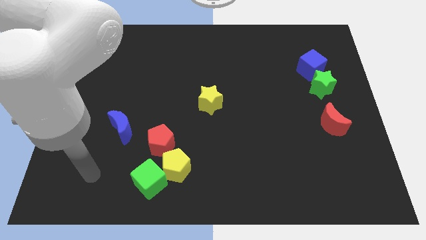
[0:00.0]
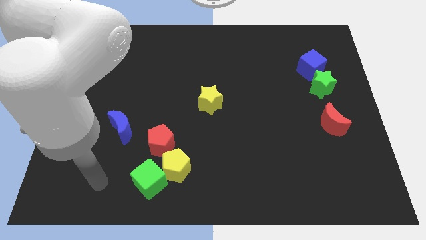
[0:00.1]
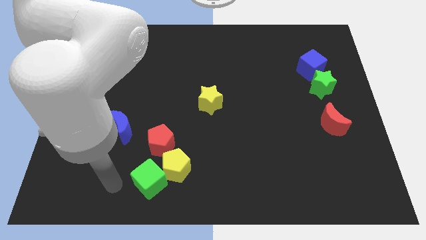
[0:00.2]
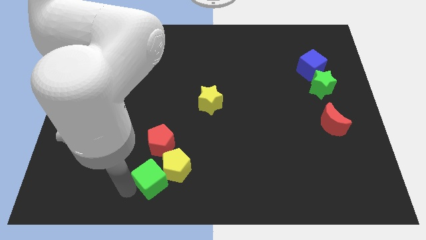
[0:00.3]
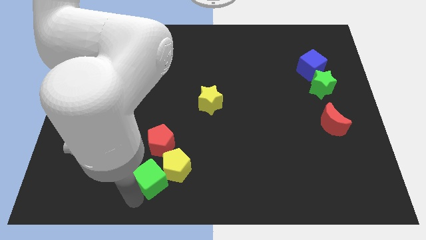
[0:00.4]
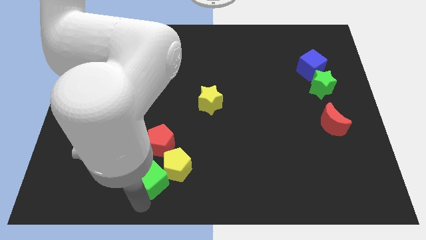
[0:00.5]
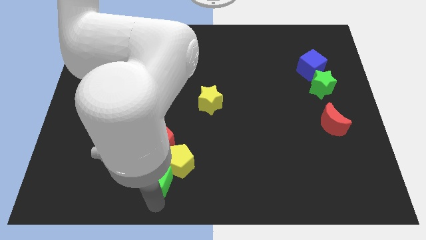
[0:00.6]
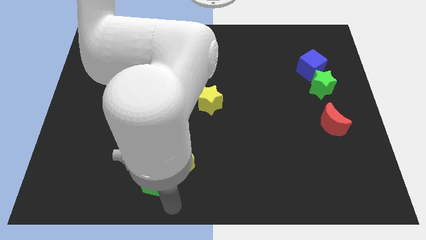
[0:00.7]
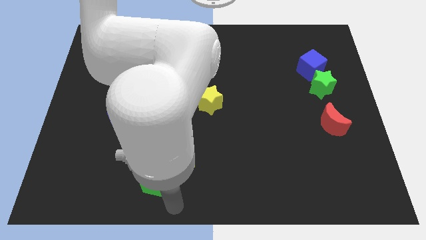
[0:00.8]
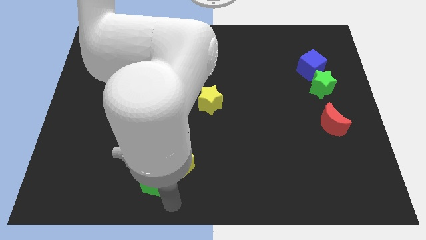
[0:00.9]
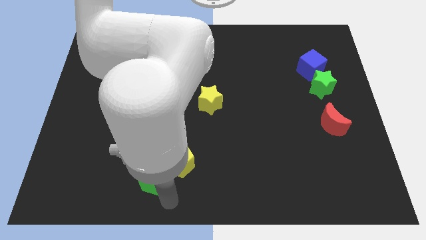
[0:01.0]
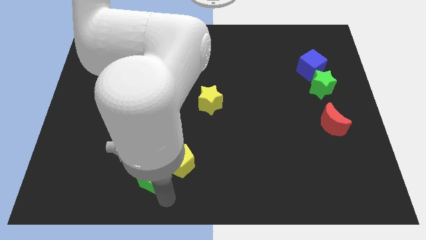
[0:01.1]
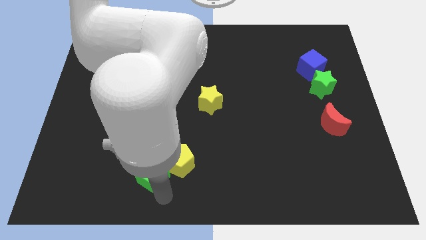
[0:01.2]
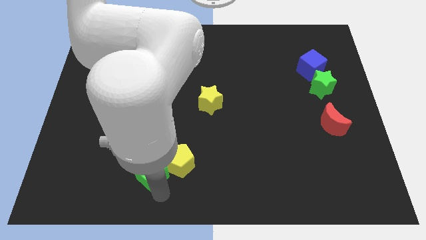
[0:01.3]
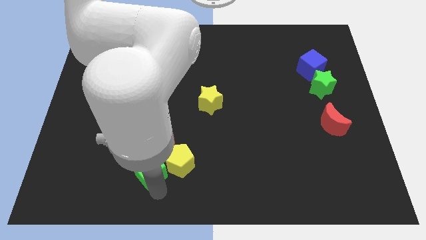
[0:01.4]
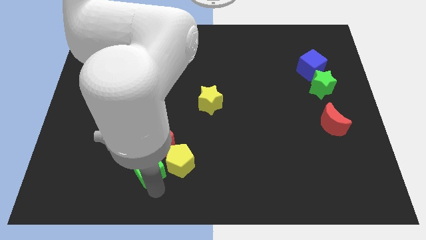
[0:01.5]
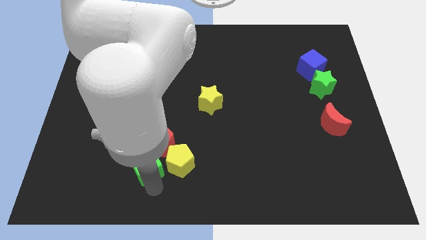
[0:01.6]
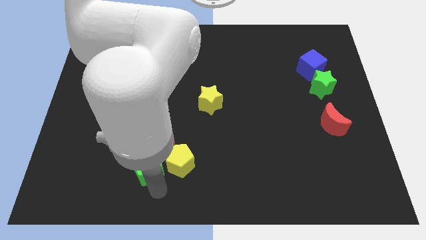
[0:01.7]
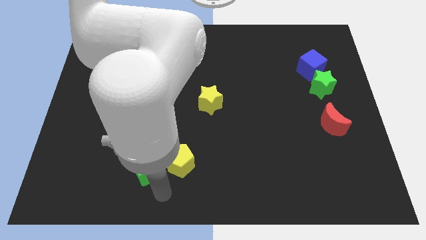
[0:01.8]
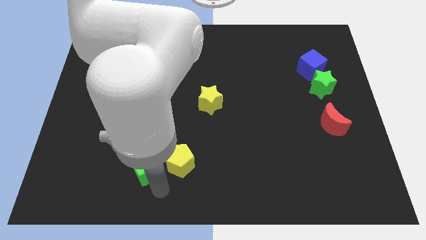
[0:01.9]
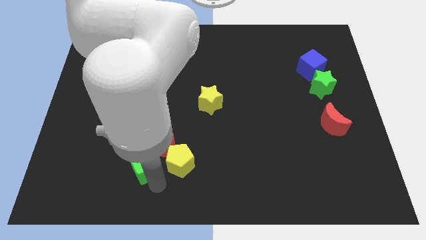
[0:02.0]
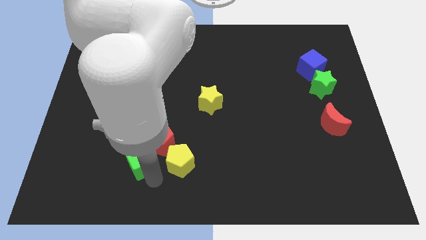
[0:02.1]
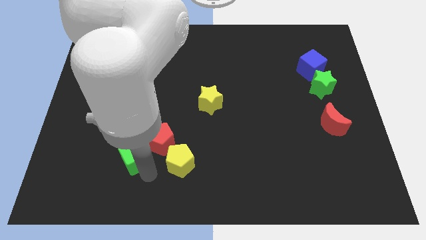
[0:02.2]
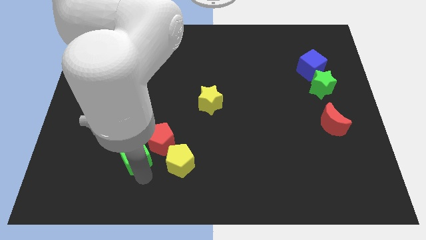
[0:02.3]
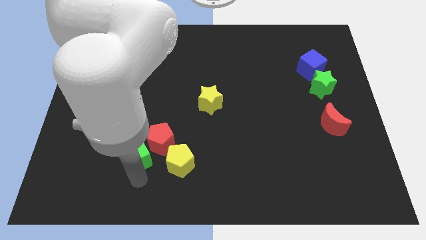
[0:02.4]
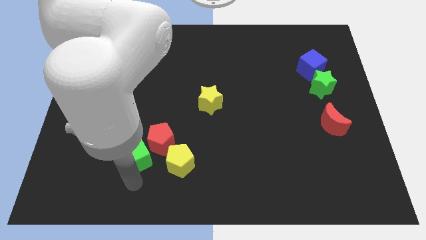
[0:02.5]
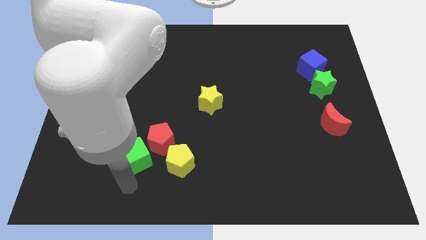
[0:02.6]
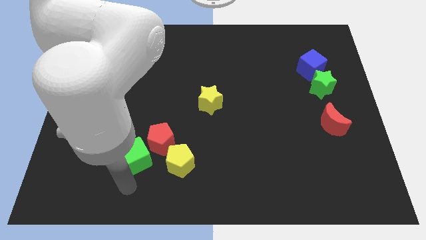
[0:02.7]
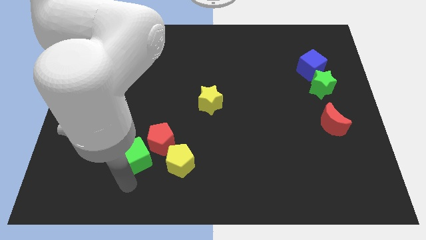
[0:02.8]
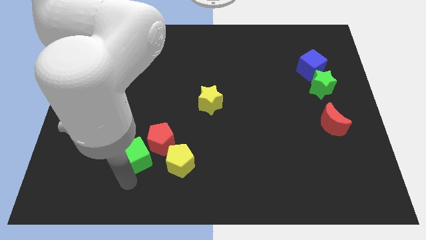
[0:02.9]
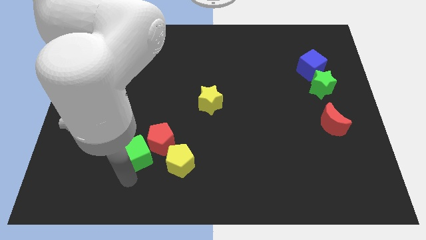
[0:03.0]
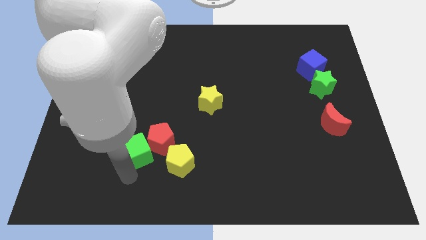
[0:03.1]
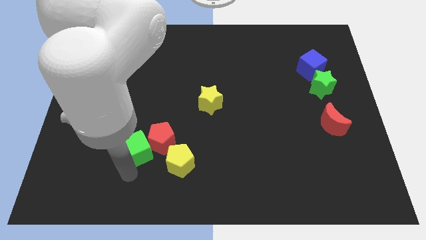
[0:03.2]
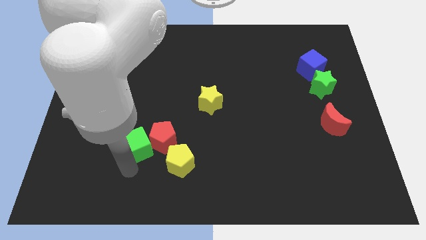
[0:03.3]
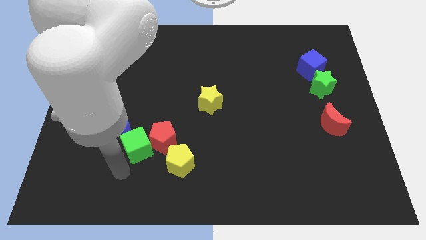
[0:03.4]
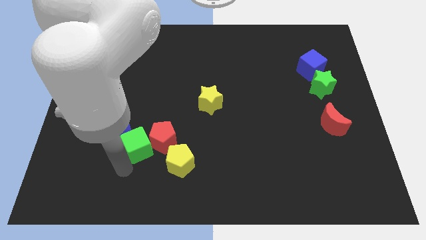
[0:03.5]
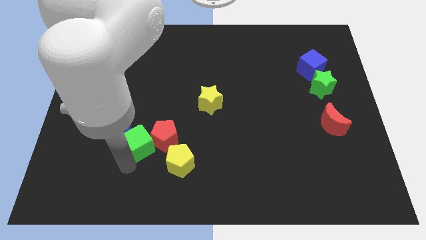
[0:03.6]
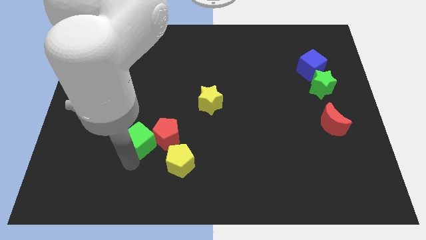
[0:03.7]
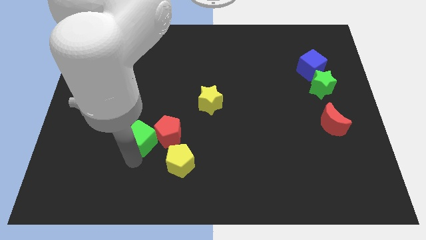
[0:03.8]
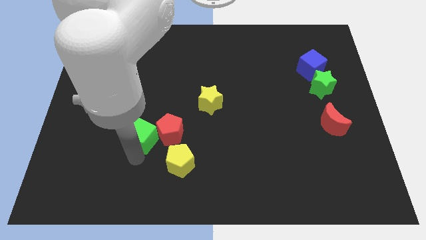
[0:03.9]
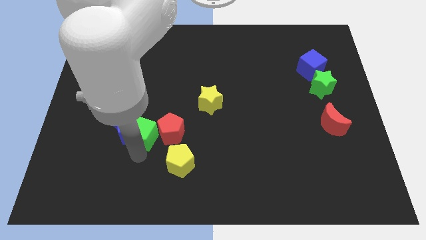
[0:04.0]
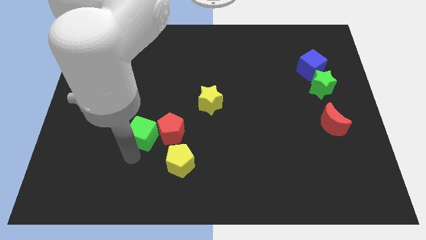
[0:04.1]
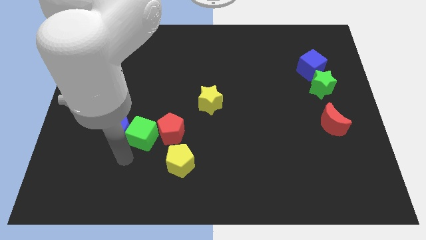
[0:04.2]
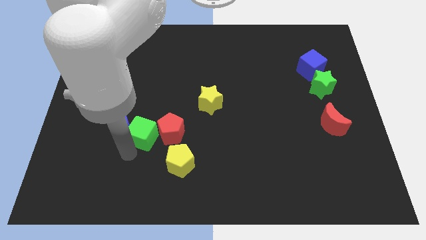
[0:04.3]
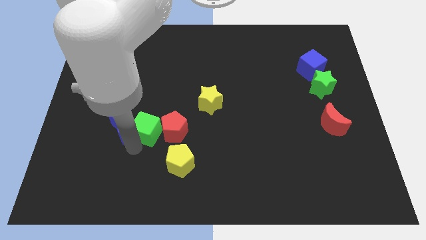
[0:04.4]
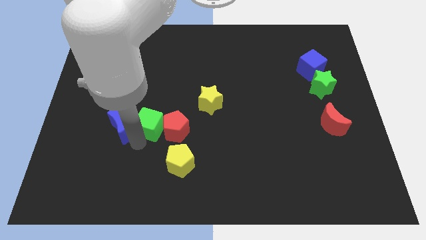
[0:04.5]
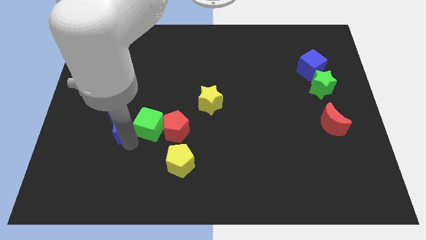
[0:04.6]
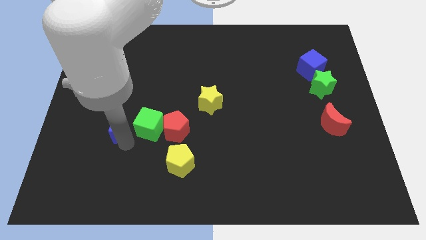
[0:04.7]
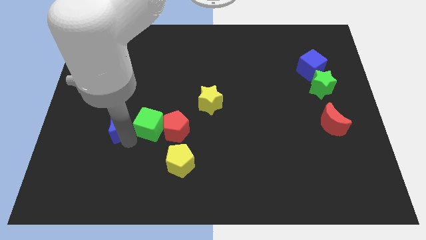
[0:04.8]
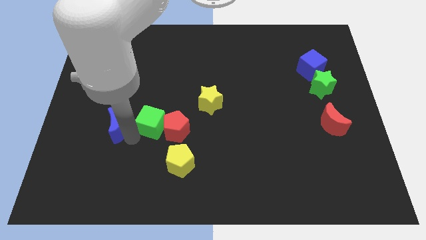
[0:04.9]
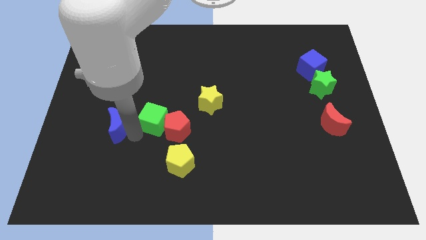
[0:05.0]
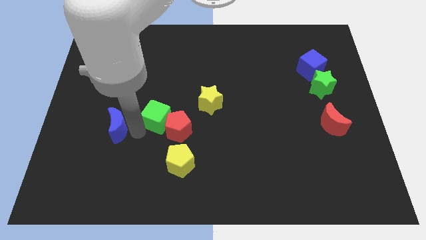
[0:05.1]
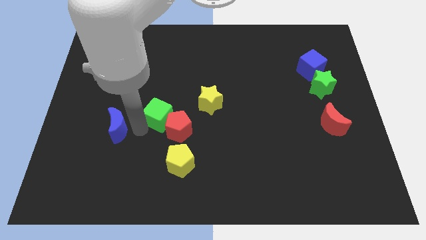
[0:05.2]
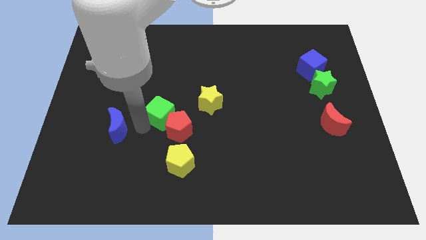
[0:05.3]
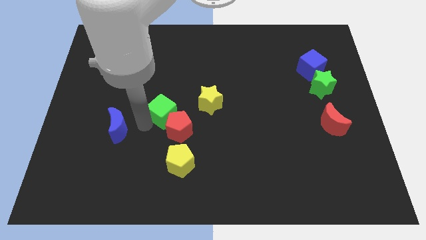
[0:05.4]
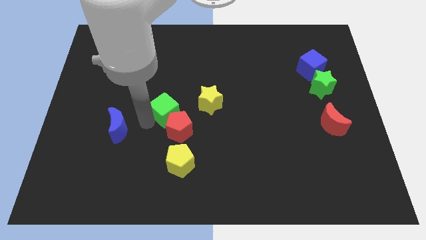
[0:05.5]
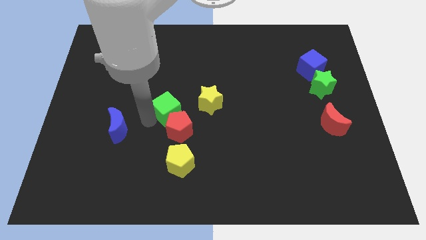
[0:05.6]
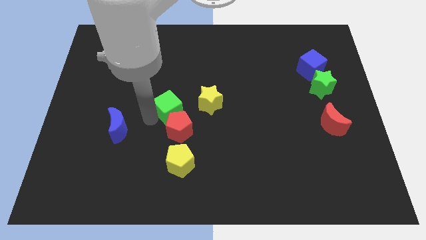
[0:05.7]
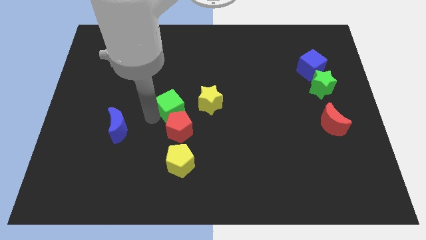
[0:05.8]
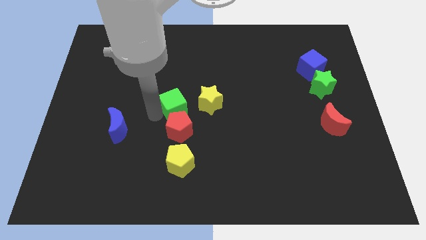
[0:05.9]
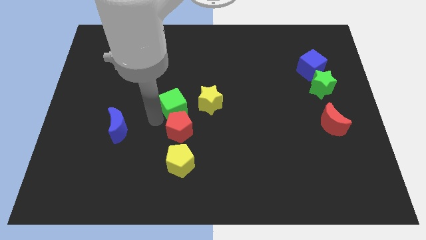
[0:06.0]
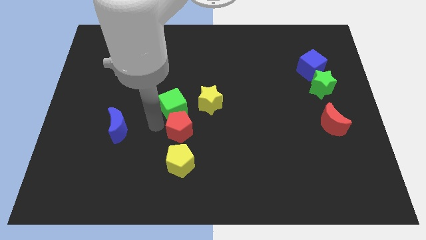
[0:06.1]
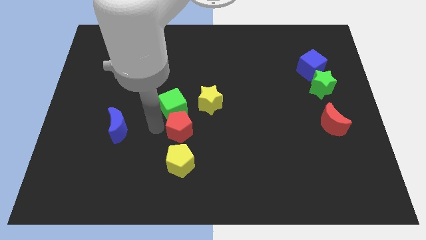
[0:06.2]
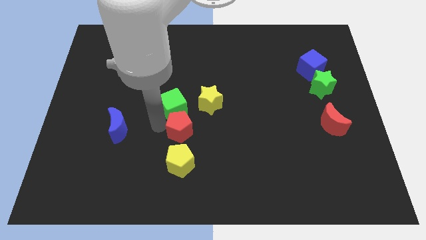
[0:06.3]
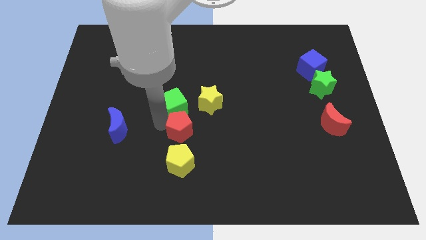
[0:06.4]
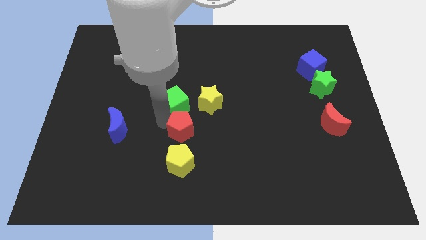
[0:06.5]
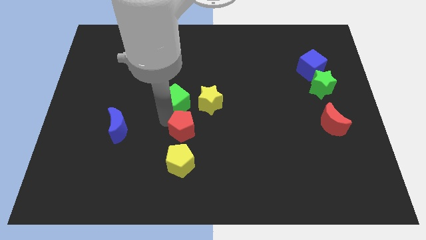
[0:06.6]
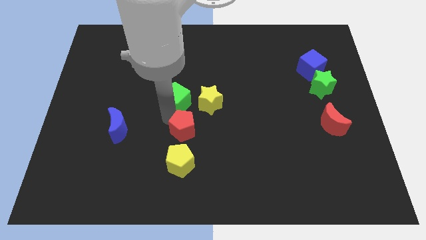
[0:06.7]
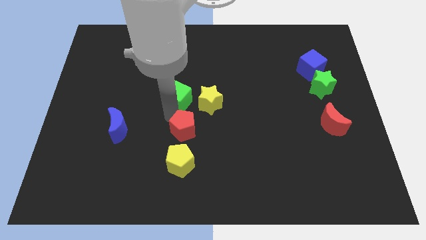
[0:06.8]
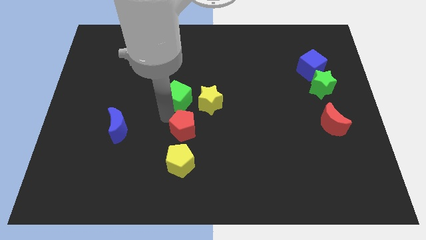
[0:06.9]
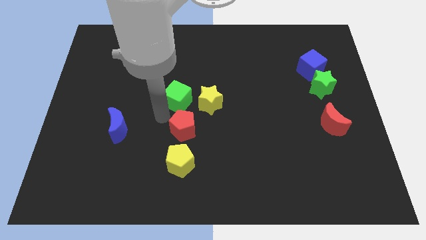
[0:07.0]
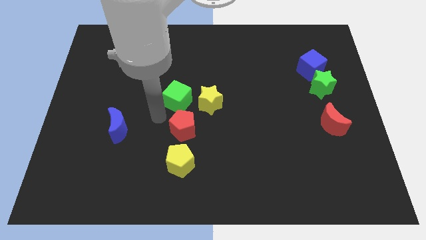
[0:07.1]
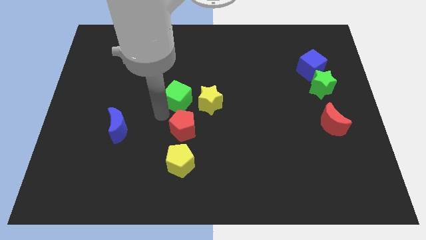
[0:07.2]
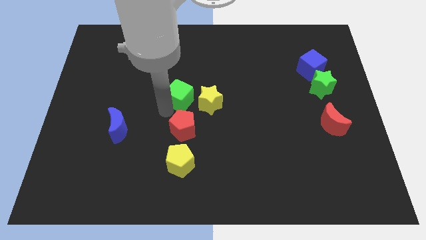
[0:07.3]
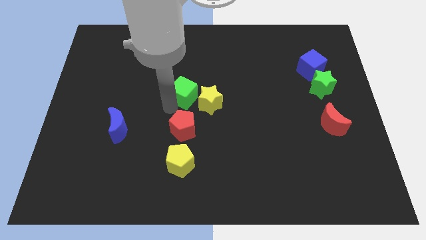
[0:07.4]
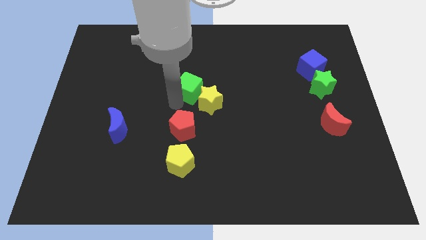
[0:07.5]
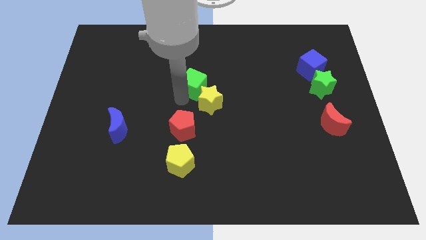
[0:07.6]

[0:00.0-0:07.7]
move the green cube to the top of the yellow star
